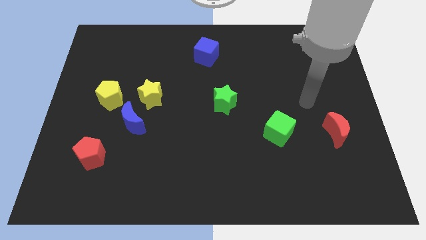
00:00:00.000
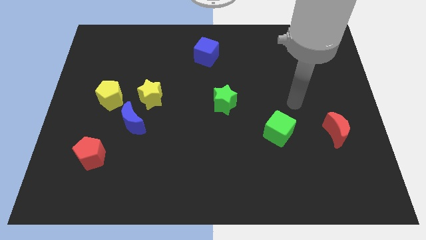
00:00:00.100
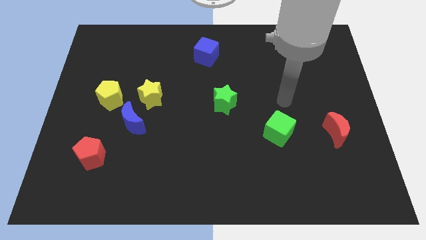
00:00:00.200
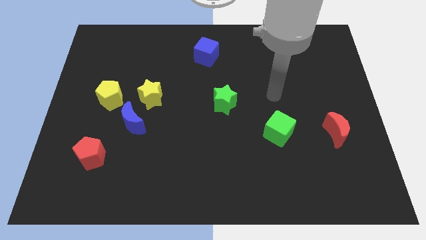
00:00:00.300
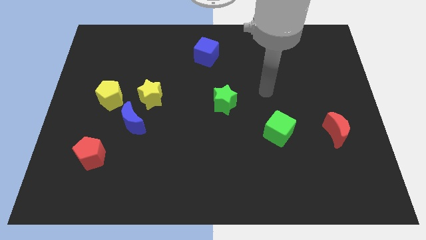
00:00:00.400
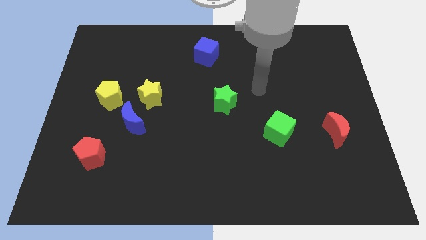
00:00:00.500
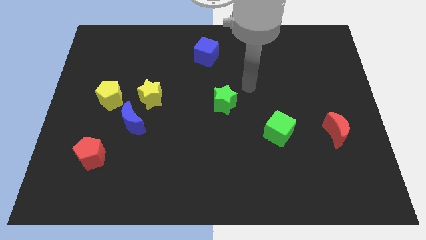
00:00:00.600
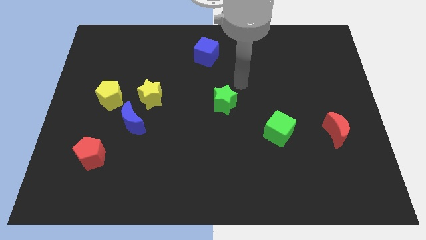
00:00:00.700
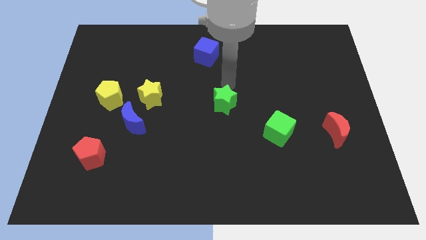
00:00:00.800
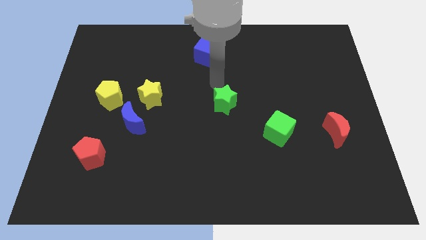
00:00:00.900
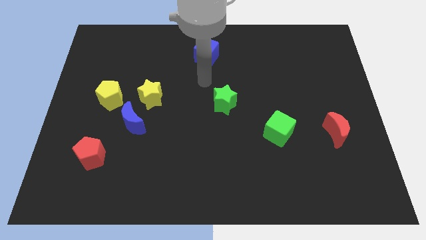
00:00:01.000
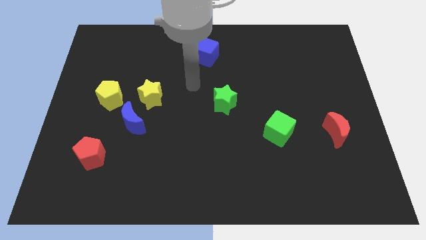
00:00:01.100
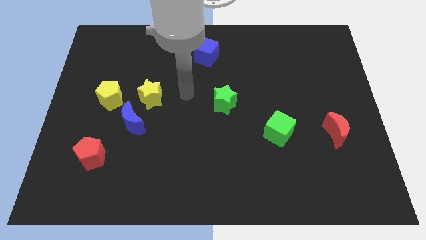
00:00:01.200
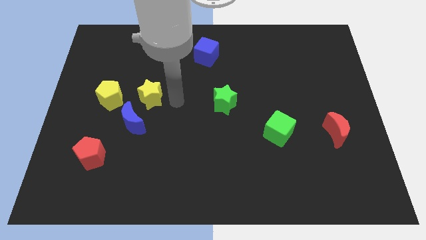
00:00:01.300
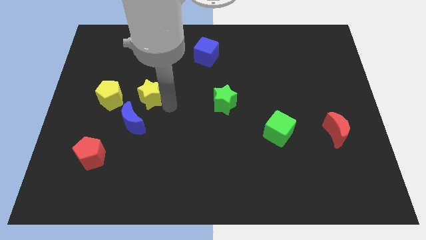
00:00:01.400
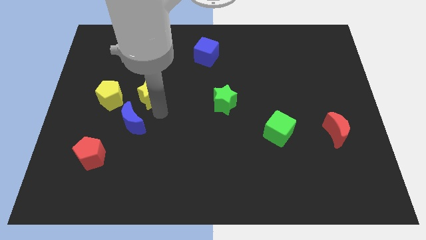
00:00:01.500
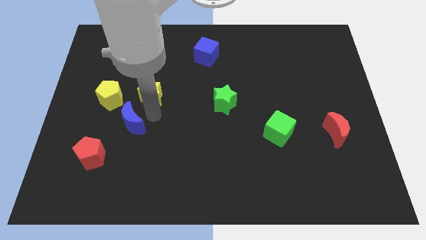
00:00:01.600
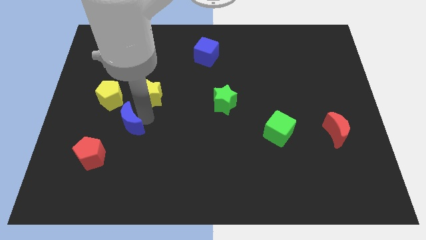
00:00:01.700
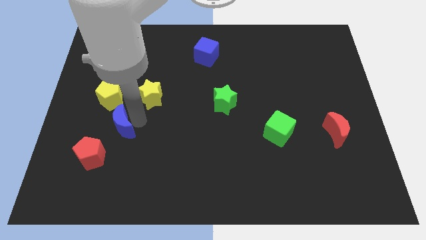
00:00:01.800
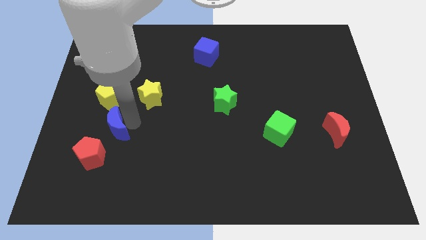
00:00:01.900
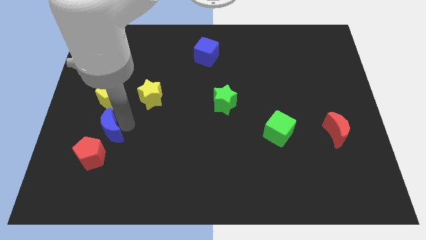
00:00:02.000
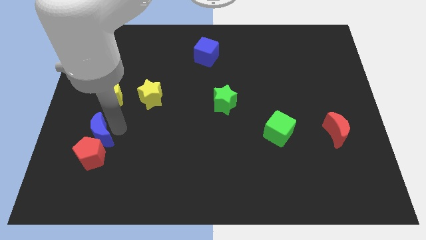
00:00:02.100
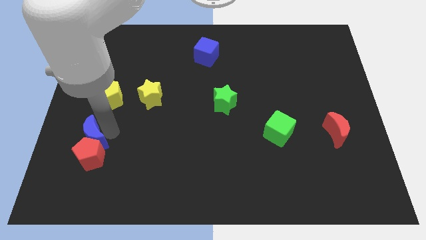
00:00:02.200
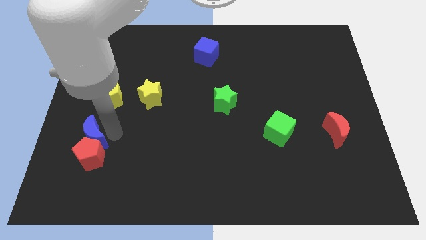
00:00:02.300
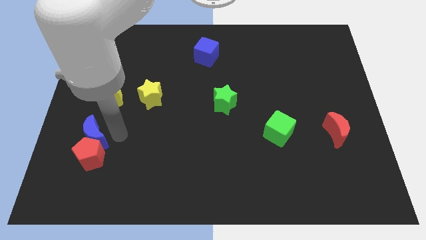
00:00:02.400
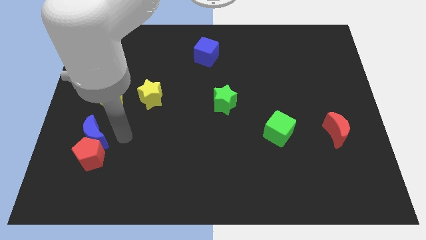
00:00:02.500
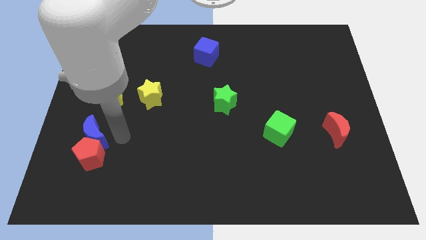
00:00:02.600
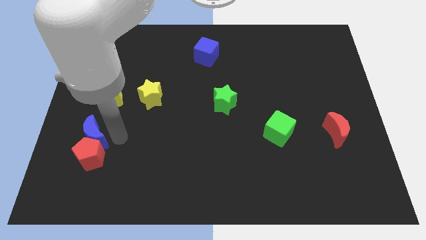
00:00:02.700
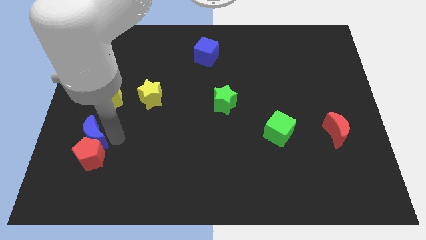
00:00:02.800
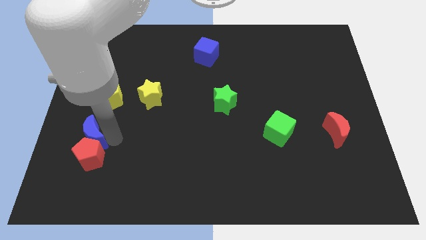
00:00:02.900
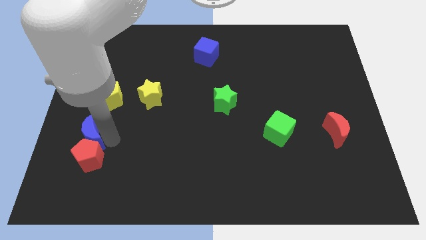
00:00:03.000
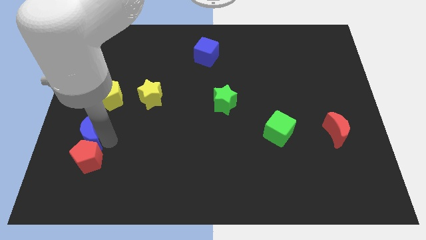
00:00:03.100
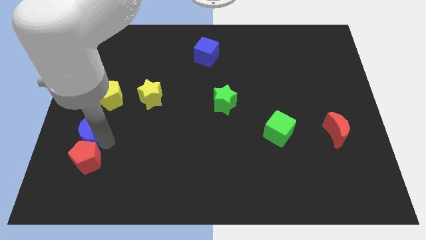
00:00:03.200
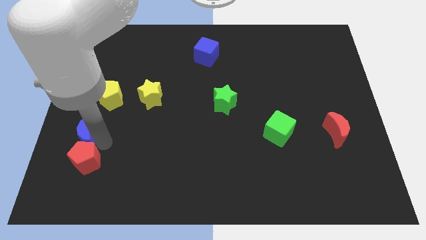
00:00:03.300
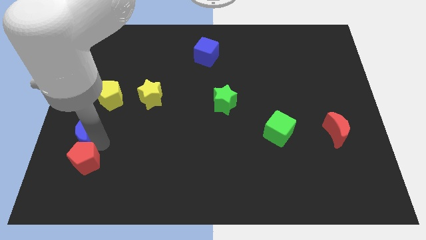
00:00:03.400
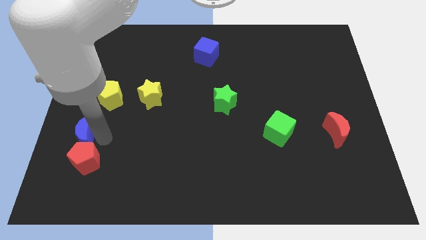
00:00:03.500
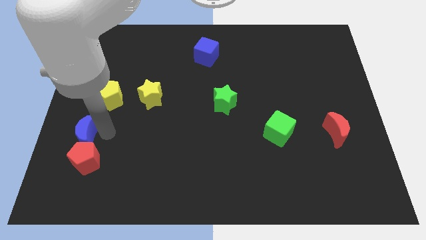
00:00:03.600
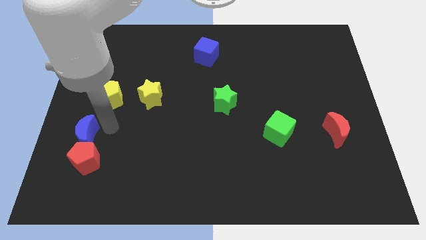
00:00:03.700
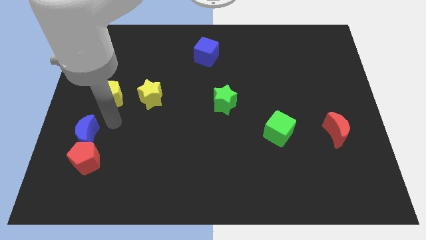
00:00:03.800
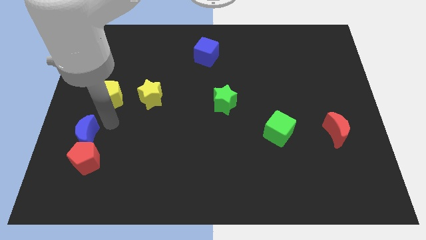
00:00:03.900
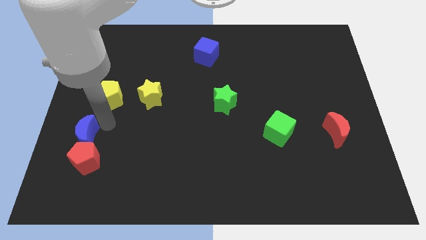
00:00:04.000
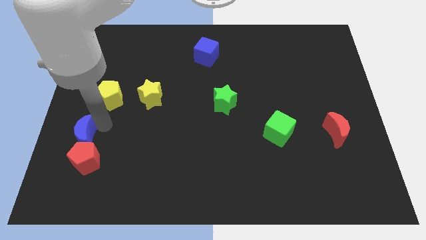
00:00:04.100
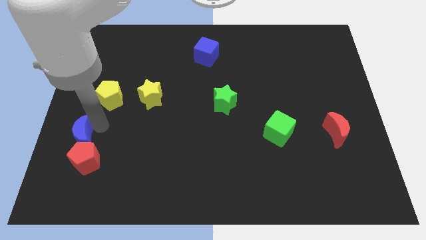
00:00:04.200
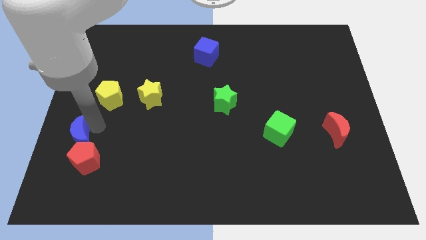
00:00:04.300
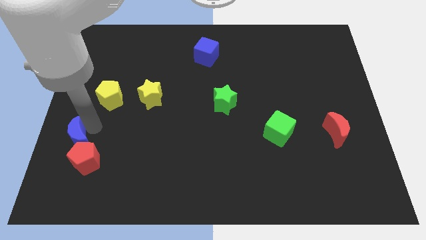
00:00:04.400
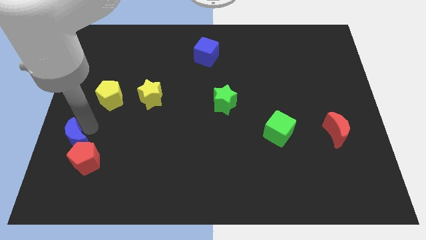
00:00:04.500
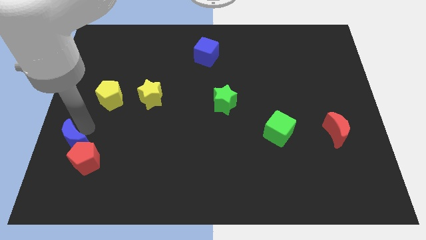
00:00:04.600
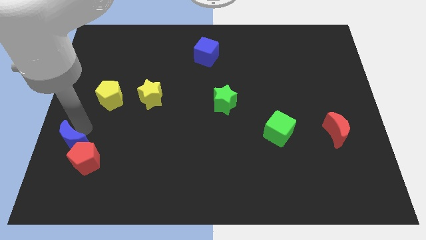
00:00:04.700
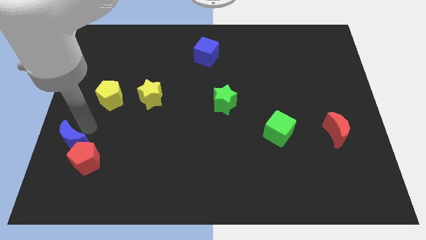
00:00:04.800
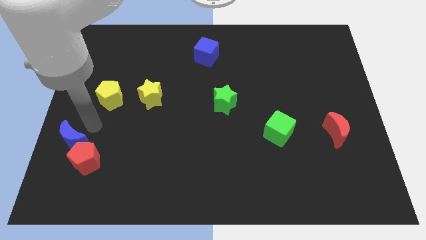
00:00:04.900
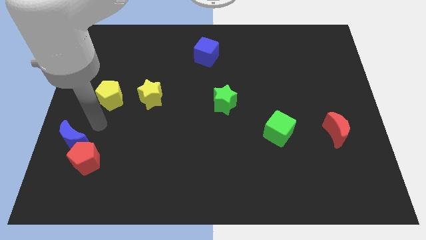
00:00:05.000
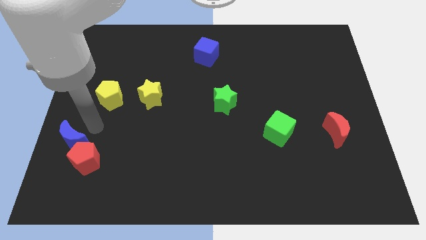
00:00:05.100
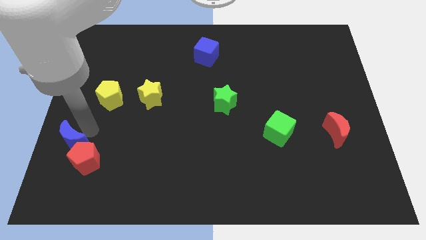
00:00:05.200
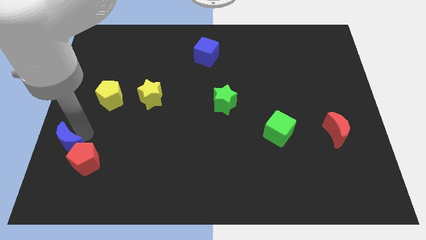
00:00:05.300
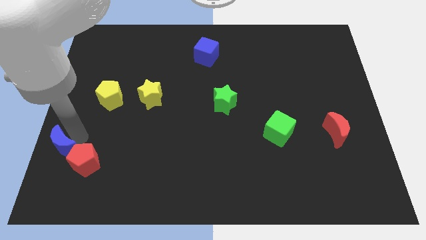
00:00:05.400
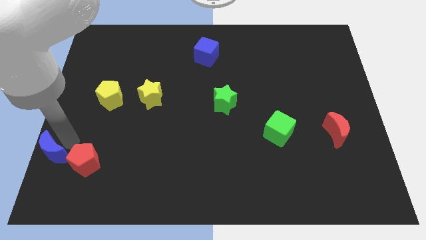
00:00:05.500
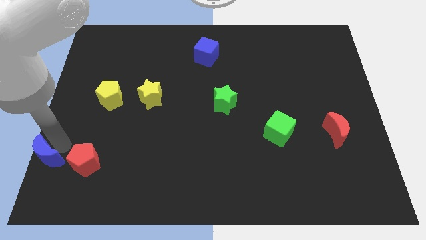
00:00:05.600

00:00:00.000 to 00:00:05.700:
push the blue moon to the lower left corner

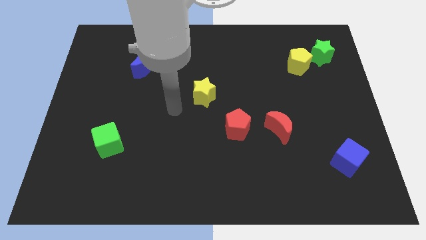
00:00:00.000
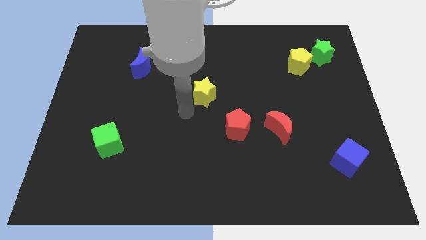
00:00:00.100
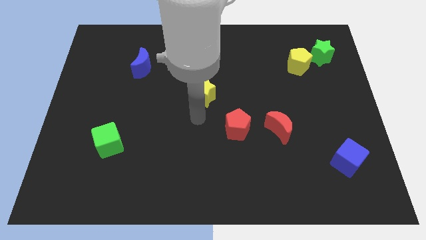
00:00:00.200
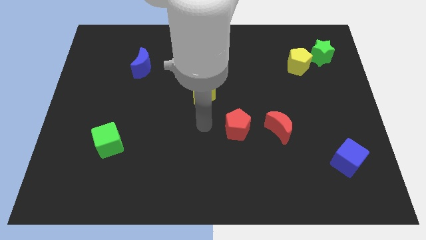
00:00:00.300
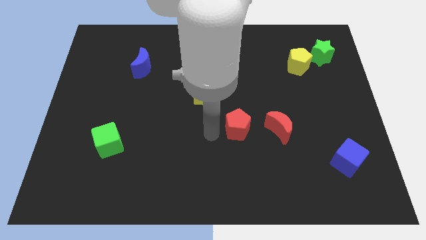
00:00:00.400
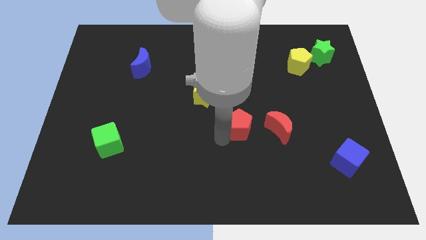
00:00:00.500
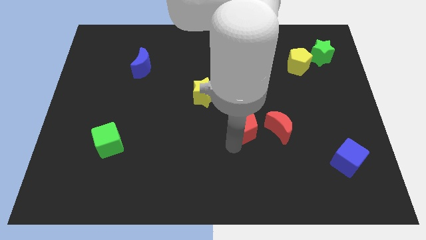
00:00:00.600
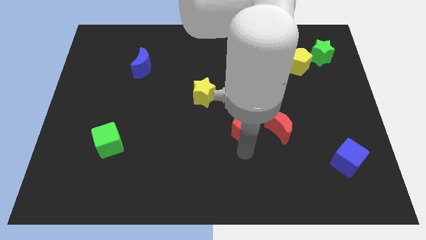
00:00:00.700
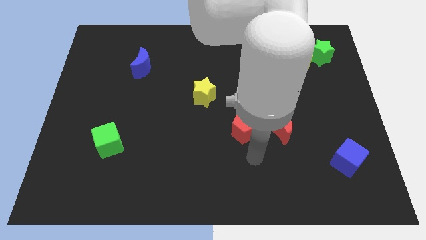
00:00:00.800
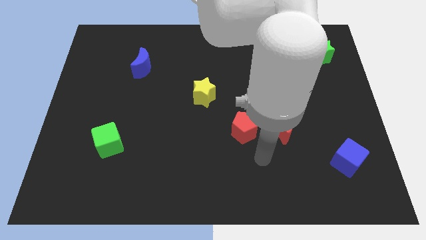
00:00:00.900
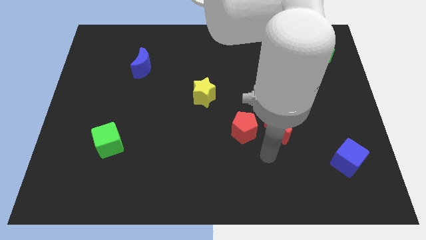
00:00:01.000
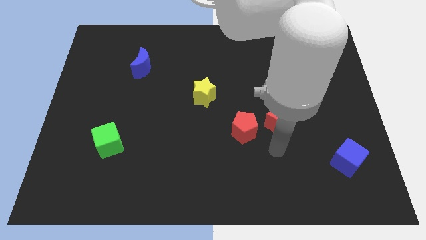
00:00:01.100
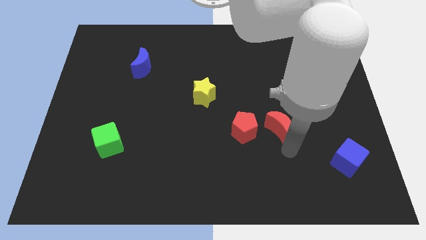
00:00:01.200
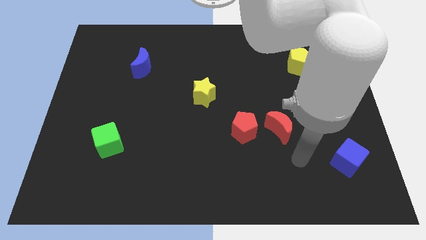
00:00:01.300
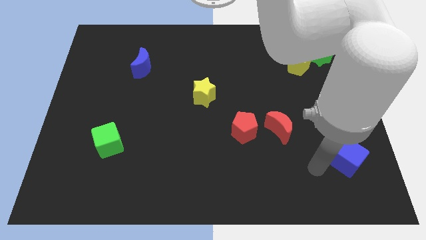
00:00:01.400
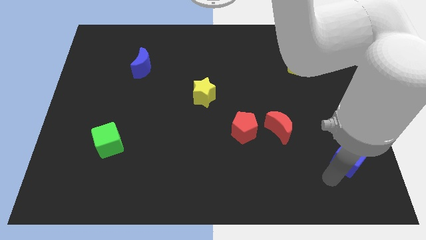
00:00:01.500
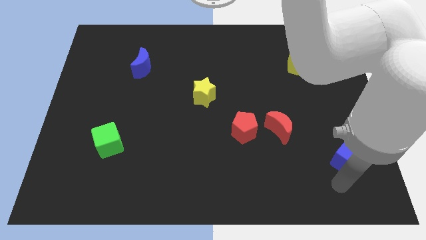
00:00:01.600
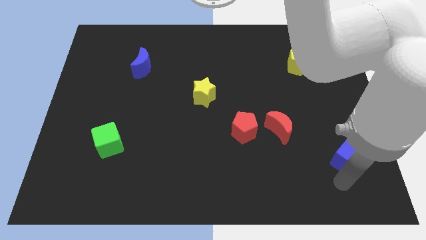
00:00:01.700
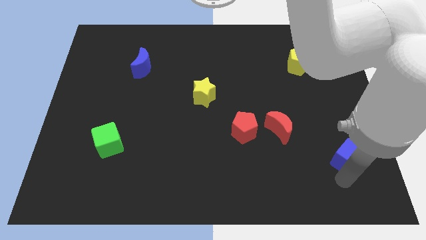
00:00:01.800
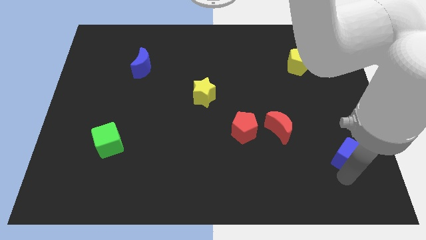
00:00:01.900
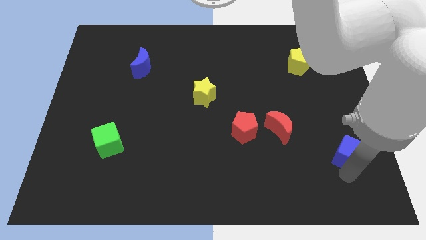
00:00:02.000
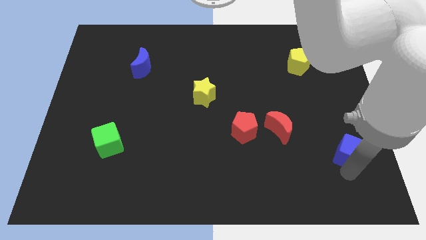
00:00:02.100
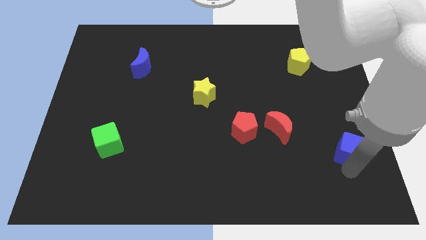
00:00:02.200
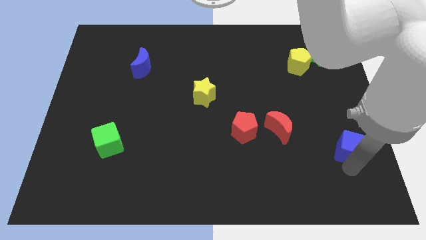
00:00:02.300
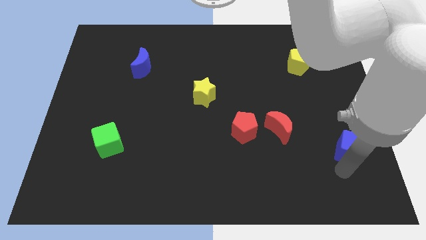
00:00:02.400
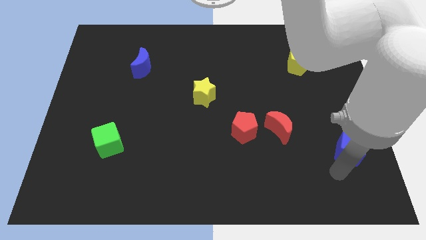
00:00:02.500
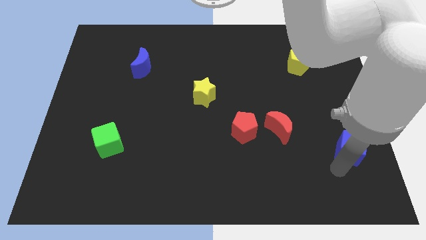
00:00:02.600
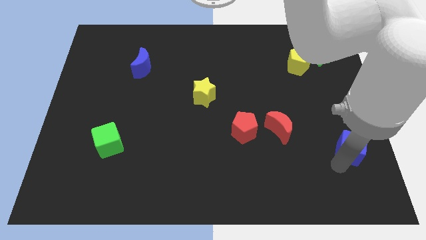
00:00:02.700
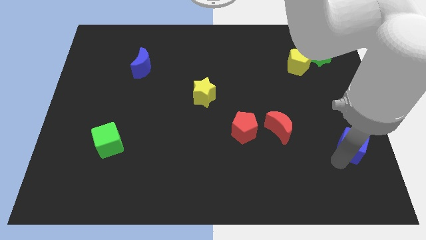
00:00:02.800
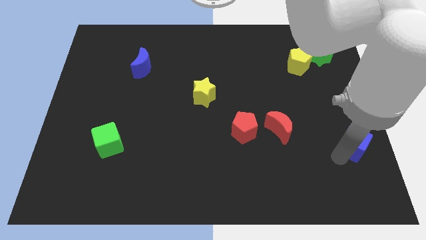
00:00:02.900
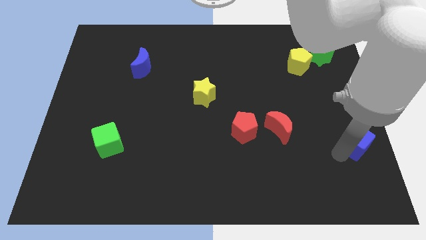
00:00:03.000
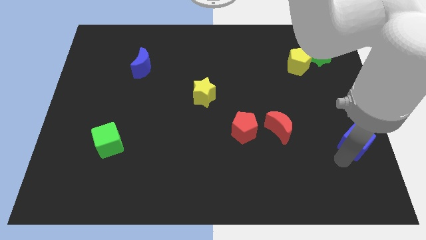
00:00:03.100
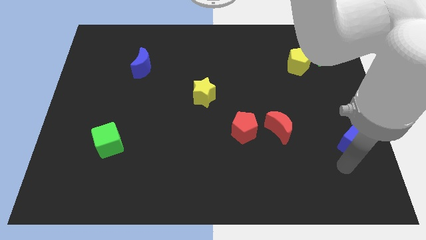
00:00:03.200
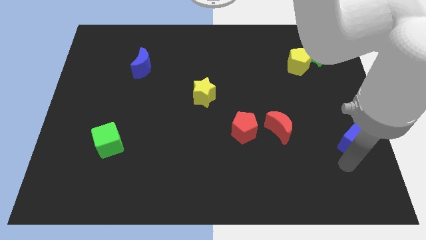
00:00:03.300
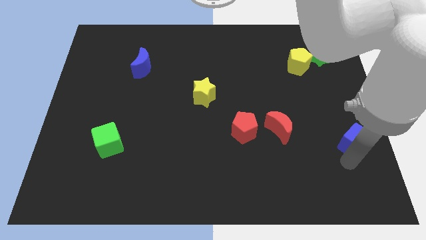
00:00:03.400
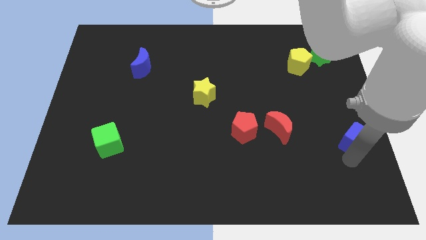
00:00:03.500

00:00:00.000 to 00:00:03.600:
push the blue cube to the center right
